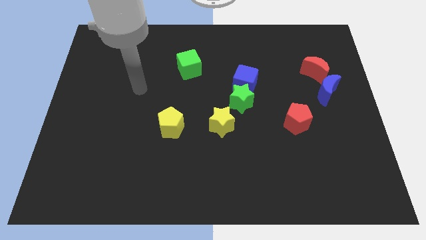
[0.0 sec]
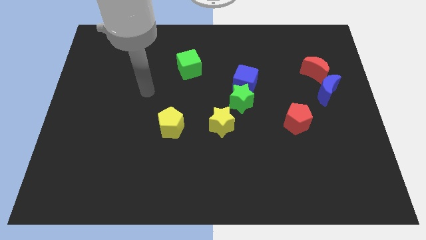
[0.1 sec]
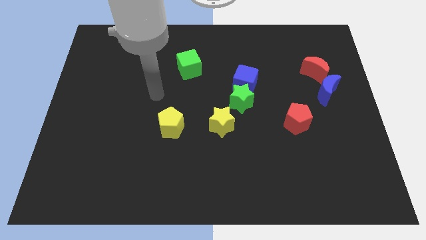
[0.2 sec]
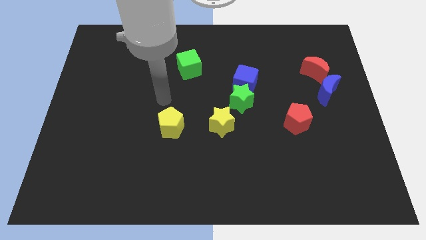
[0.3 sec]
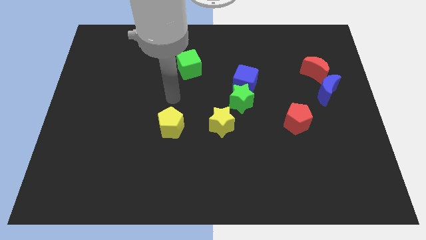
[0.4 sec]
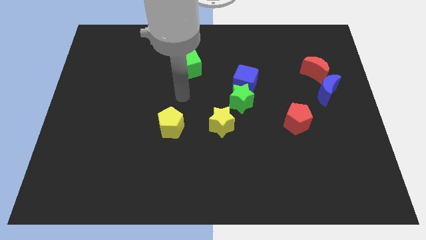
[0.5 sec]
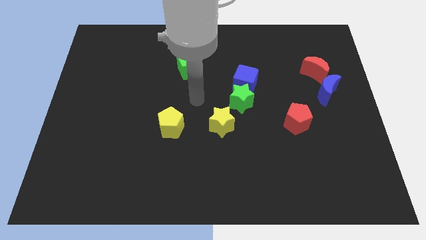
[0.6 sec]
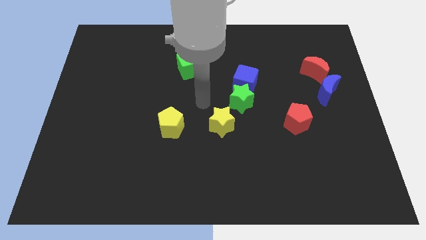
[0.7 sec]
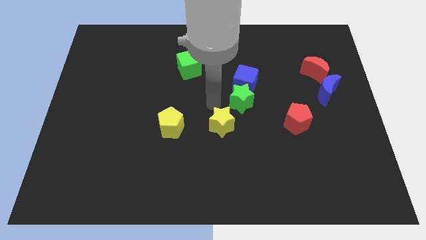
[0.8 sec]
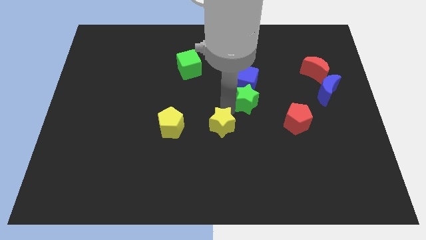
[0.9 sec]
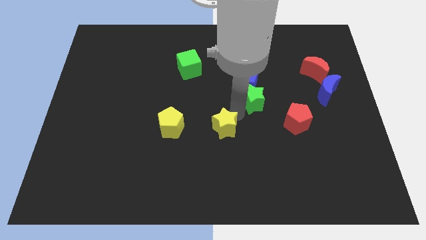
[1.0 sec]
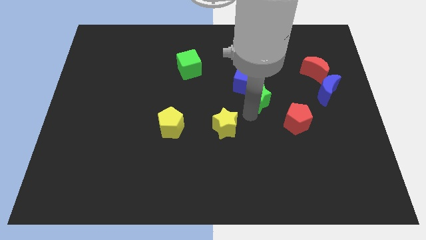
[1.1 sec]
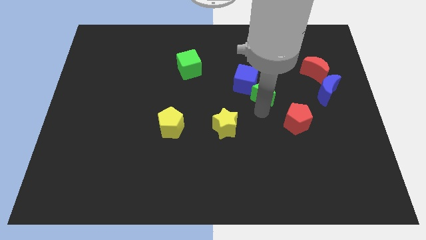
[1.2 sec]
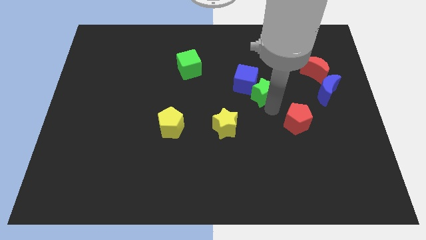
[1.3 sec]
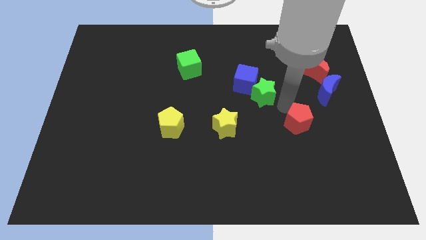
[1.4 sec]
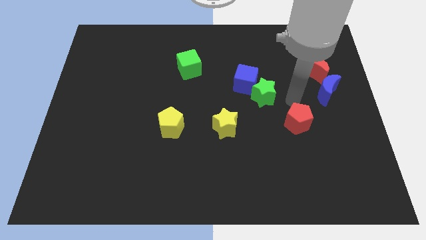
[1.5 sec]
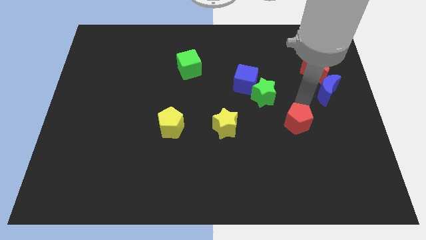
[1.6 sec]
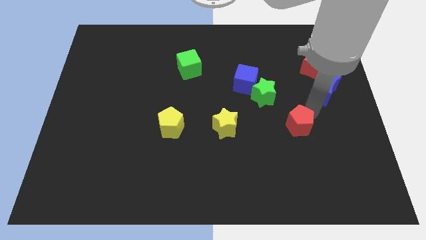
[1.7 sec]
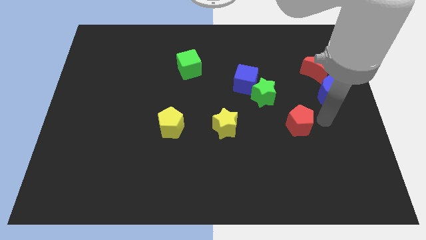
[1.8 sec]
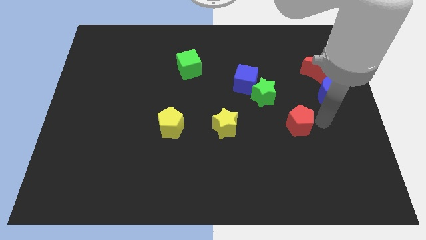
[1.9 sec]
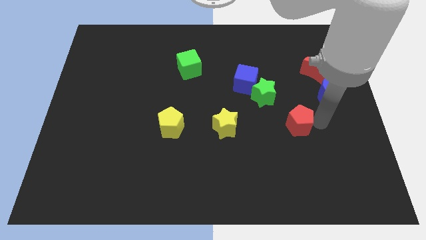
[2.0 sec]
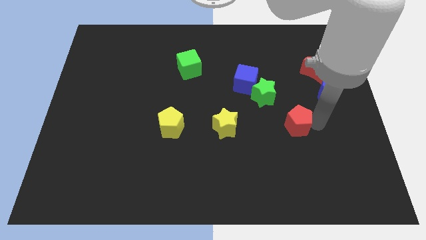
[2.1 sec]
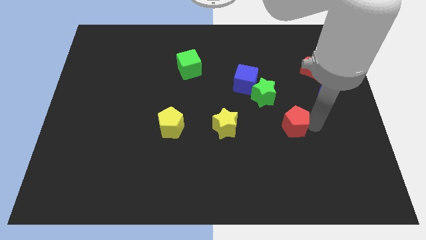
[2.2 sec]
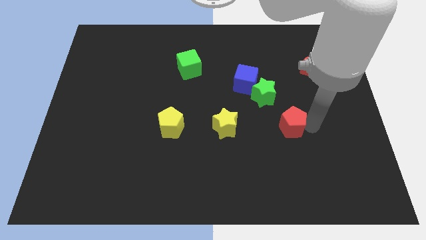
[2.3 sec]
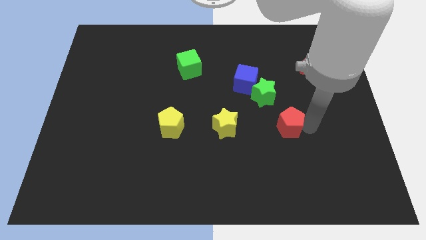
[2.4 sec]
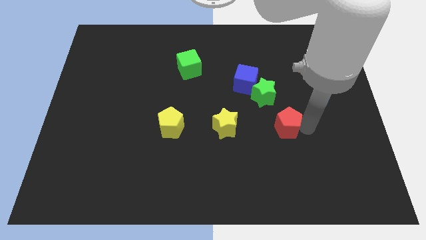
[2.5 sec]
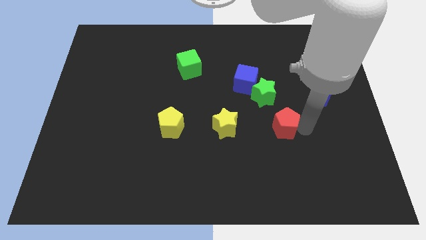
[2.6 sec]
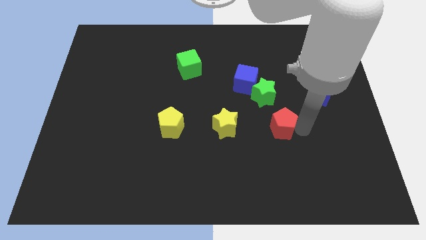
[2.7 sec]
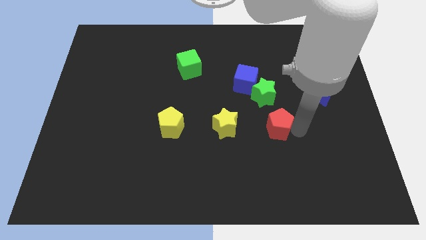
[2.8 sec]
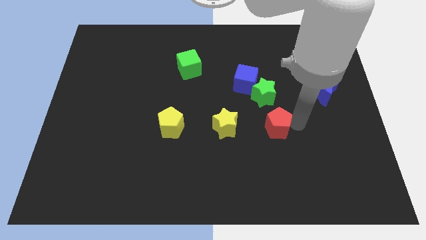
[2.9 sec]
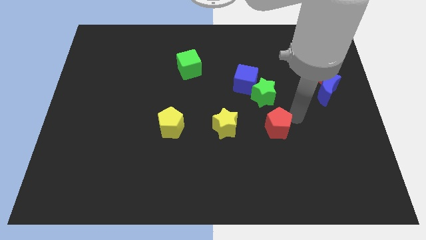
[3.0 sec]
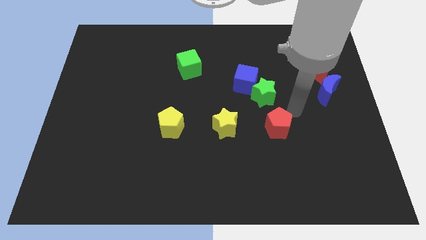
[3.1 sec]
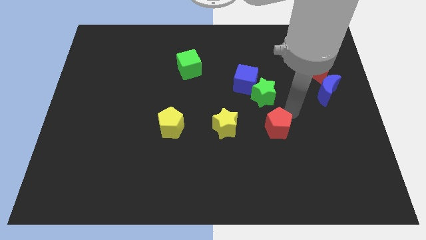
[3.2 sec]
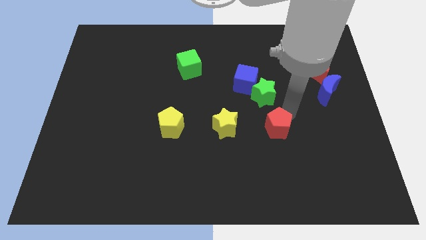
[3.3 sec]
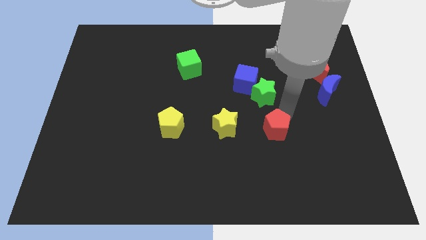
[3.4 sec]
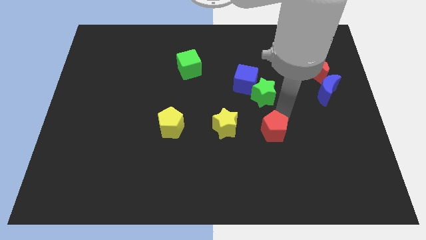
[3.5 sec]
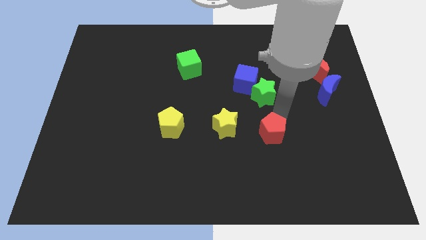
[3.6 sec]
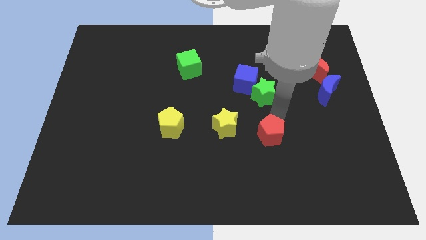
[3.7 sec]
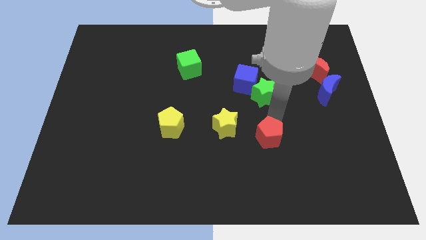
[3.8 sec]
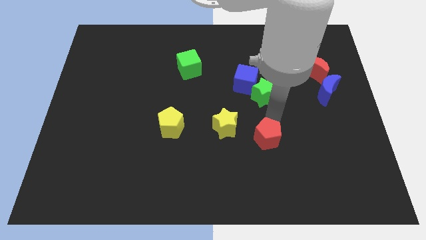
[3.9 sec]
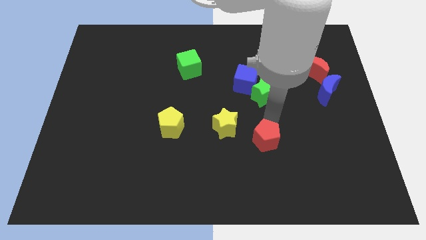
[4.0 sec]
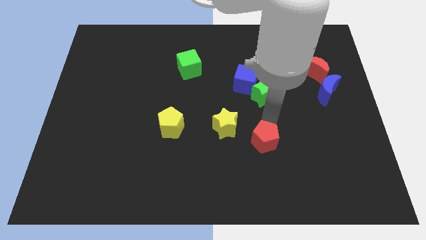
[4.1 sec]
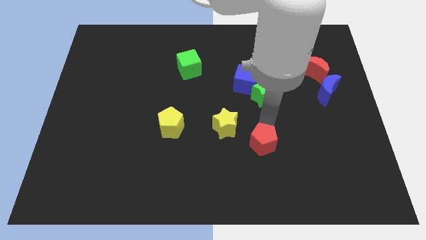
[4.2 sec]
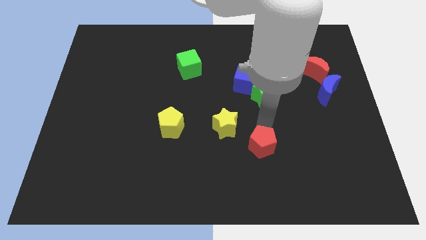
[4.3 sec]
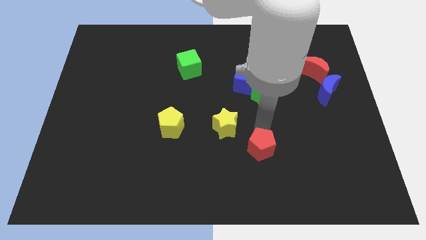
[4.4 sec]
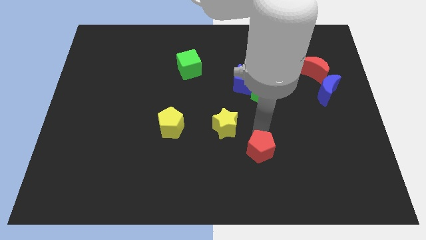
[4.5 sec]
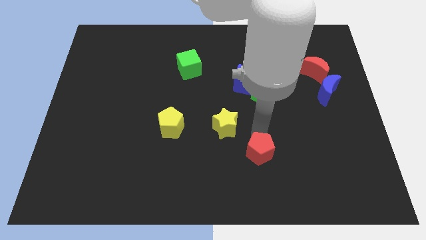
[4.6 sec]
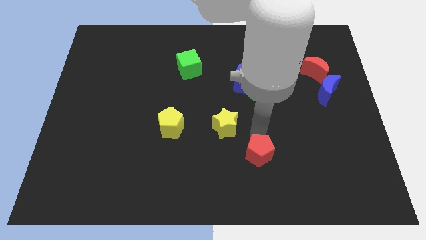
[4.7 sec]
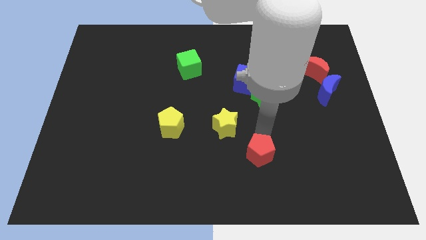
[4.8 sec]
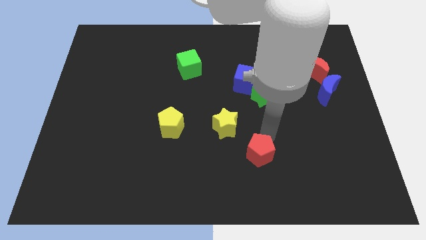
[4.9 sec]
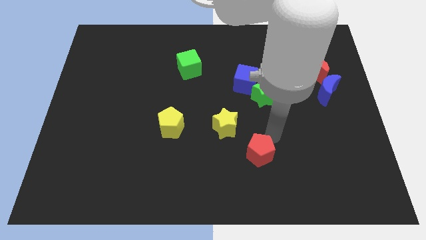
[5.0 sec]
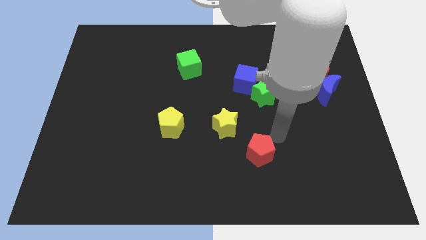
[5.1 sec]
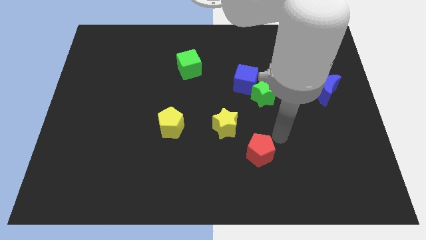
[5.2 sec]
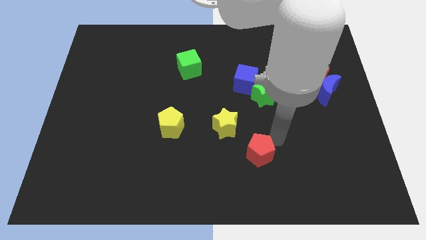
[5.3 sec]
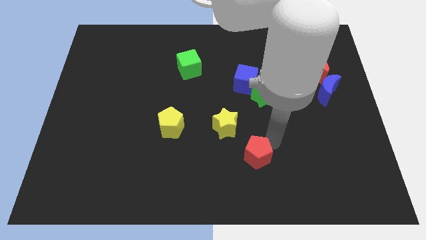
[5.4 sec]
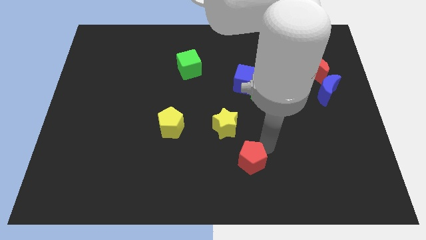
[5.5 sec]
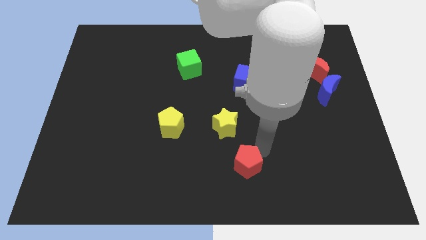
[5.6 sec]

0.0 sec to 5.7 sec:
push the red pentagon to the bottom side

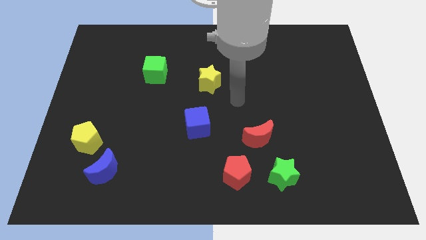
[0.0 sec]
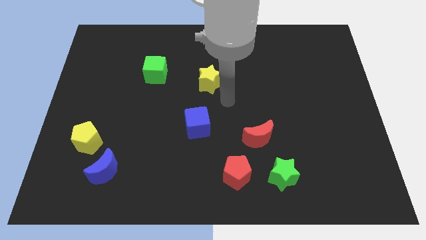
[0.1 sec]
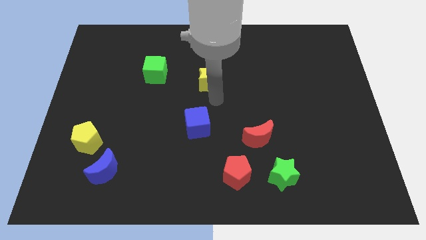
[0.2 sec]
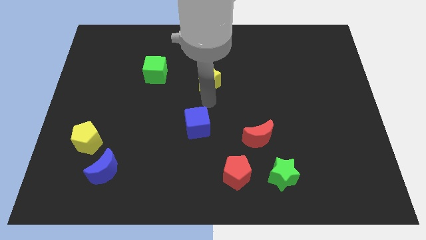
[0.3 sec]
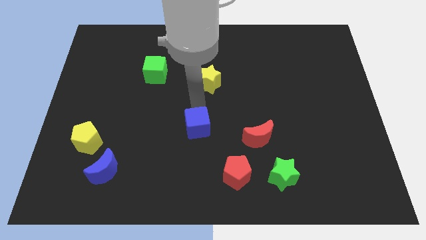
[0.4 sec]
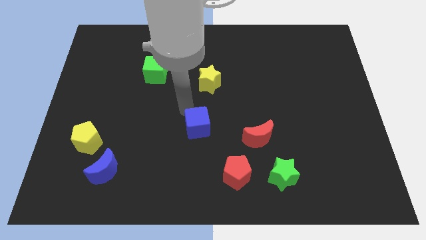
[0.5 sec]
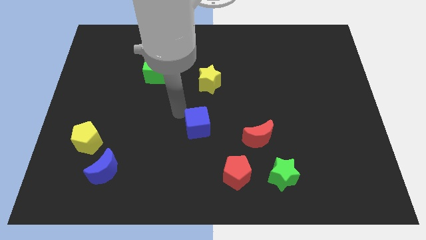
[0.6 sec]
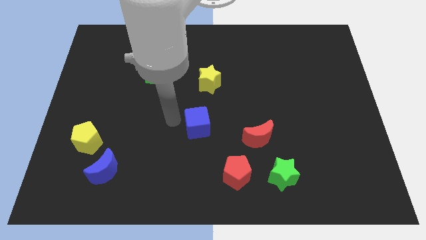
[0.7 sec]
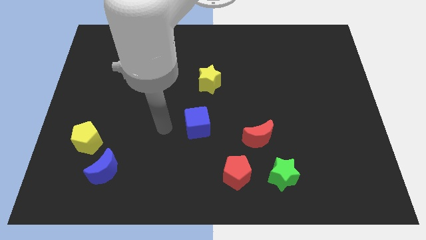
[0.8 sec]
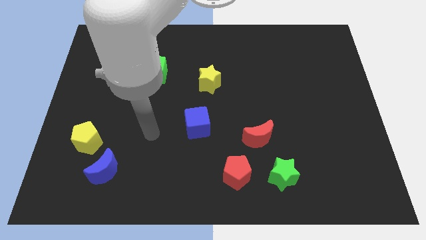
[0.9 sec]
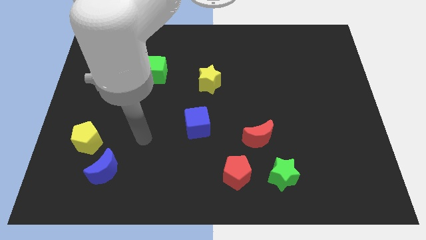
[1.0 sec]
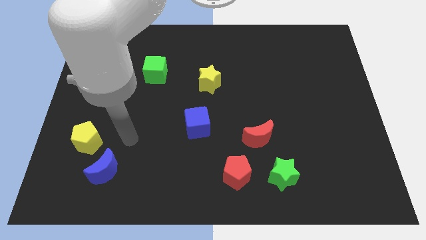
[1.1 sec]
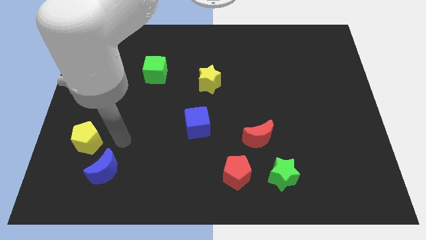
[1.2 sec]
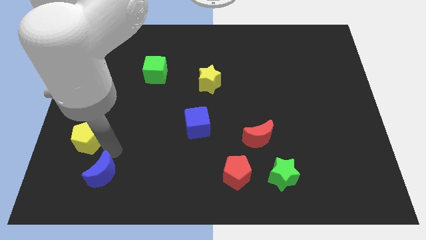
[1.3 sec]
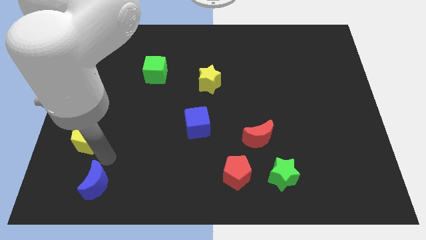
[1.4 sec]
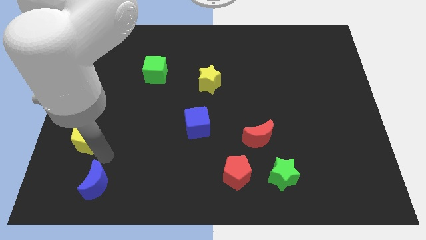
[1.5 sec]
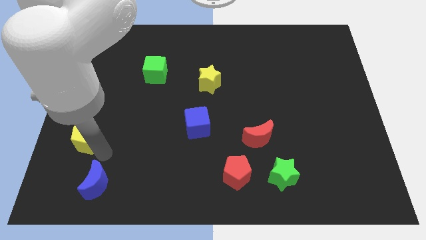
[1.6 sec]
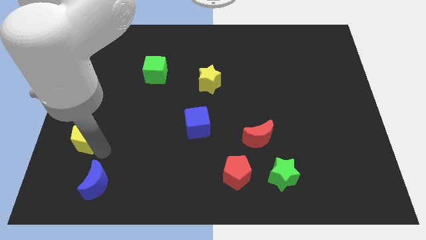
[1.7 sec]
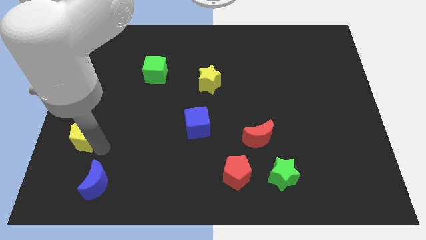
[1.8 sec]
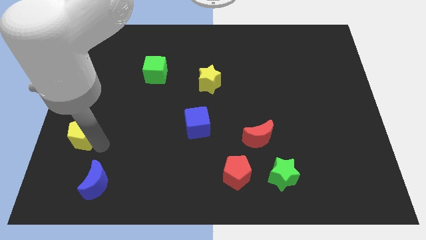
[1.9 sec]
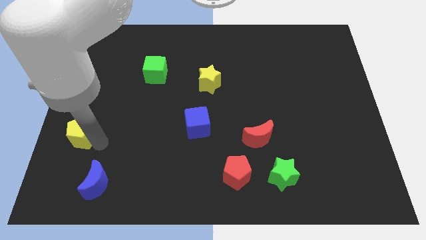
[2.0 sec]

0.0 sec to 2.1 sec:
push the yellow pentagon to the left side
